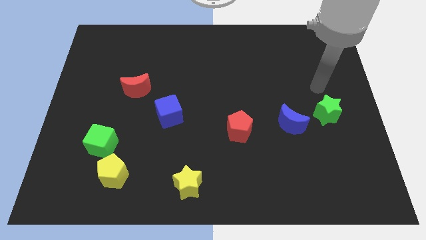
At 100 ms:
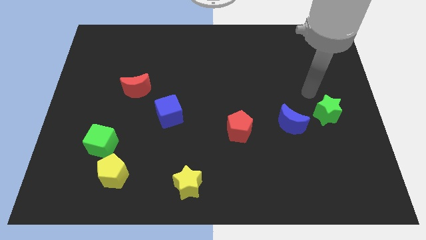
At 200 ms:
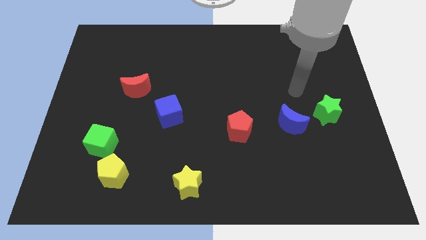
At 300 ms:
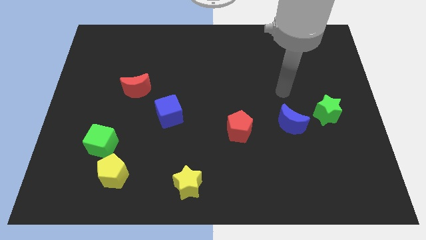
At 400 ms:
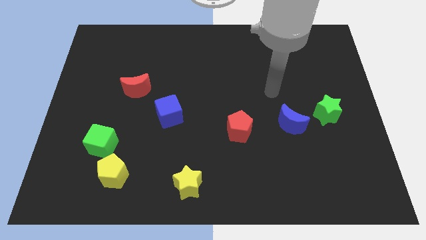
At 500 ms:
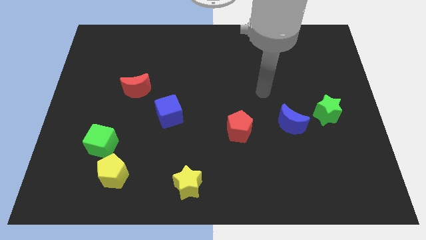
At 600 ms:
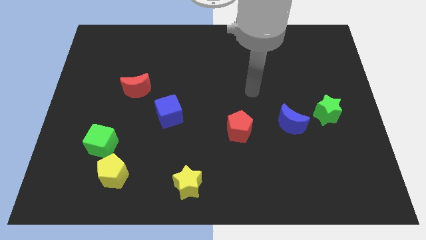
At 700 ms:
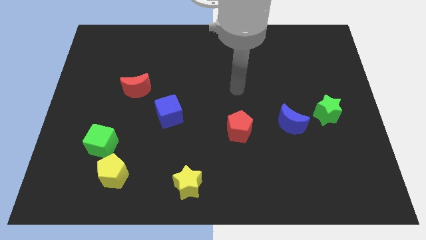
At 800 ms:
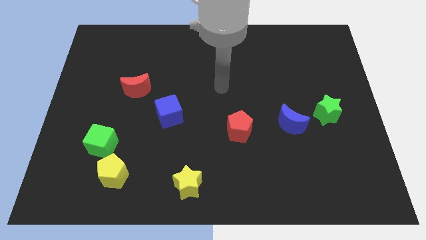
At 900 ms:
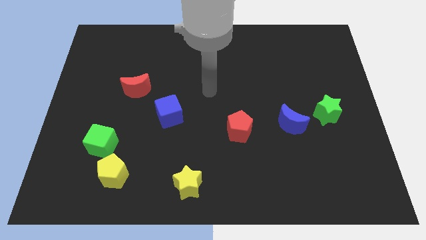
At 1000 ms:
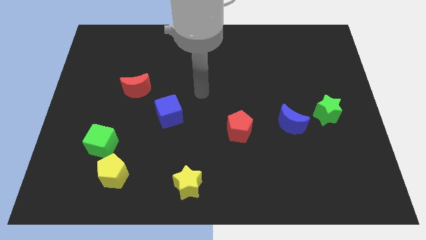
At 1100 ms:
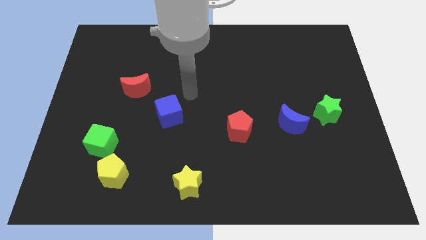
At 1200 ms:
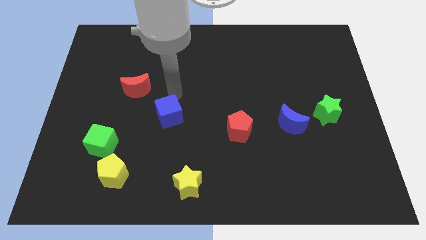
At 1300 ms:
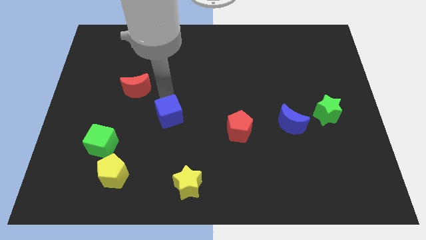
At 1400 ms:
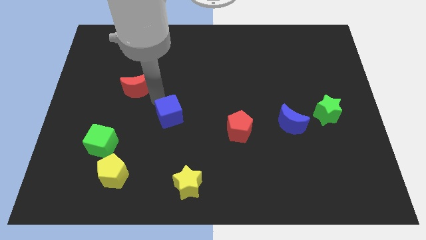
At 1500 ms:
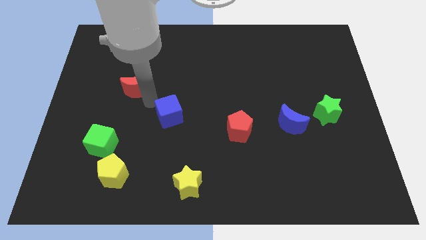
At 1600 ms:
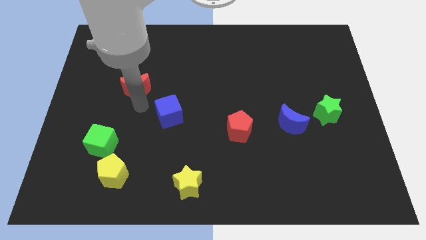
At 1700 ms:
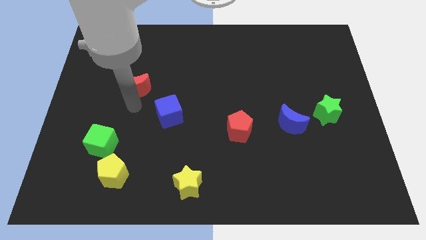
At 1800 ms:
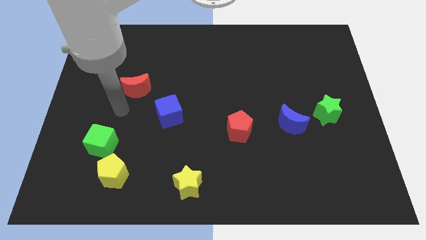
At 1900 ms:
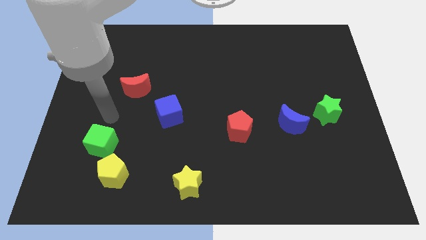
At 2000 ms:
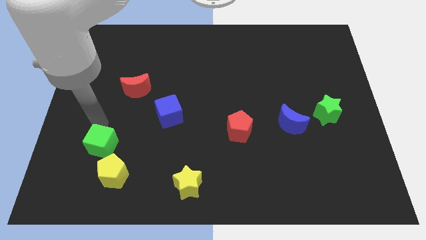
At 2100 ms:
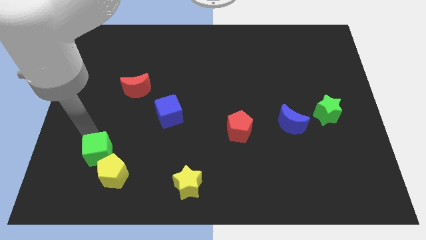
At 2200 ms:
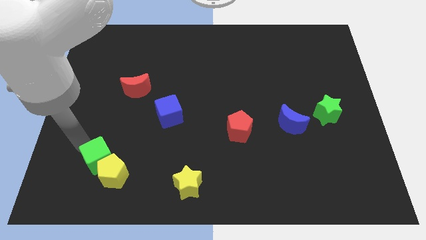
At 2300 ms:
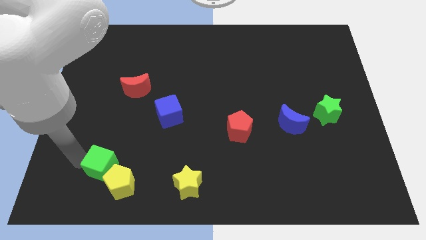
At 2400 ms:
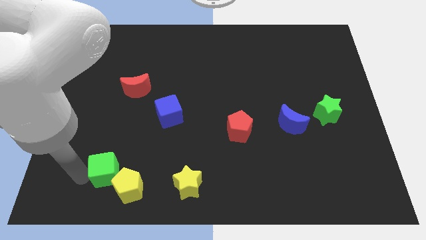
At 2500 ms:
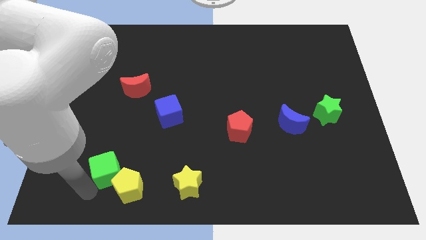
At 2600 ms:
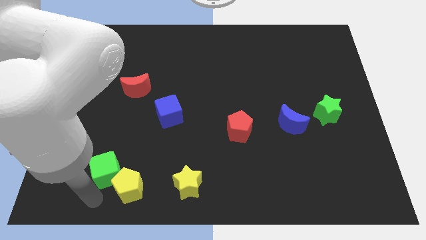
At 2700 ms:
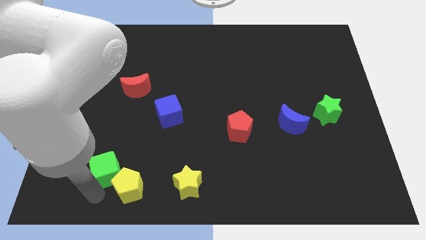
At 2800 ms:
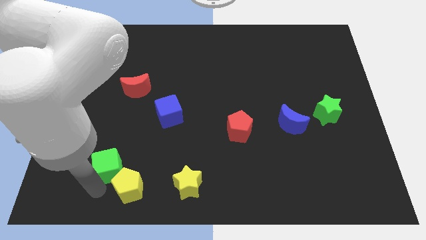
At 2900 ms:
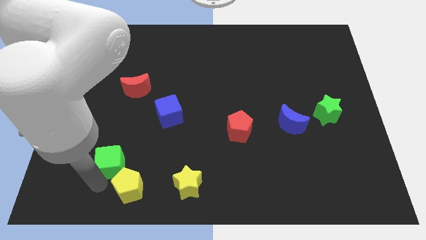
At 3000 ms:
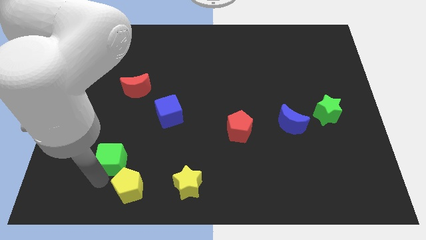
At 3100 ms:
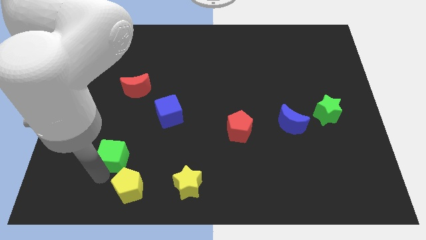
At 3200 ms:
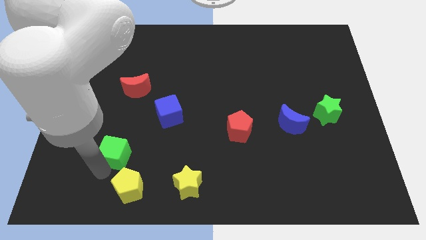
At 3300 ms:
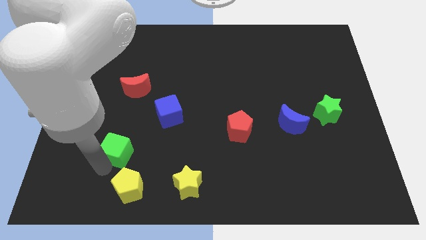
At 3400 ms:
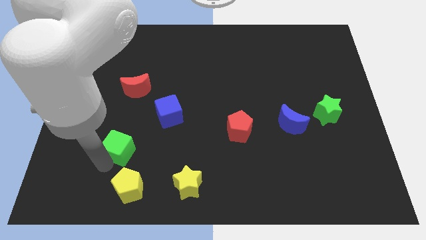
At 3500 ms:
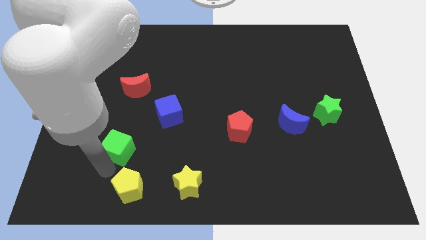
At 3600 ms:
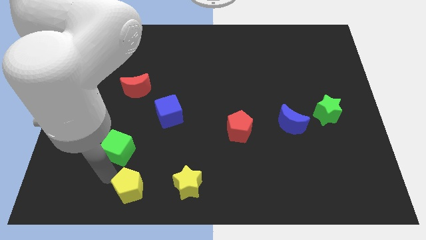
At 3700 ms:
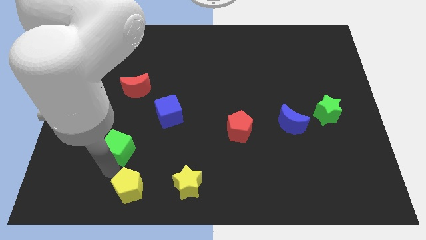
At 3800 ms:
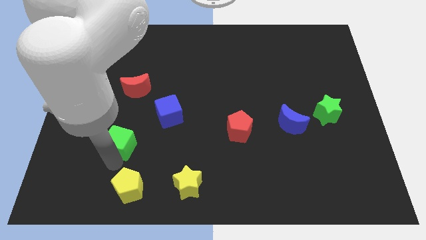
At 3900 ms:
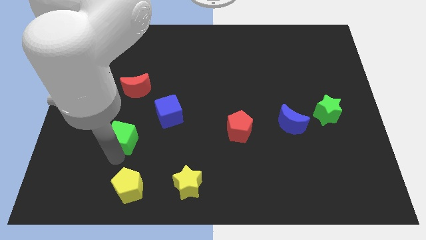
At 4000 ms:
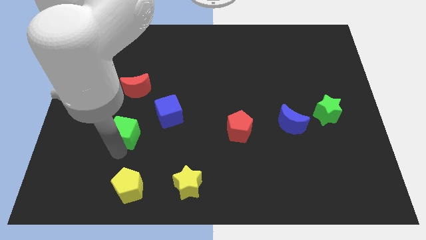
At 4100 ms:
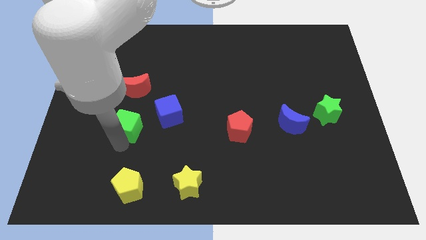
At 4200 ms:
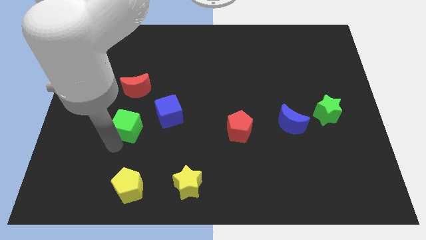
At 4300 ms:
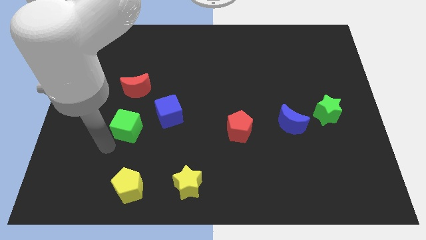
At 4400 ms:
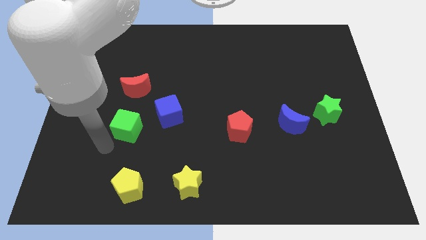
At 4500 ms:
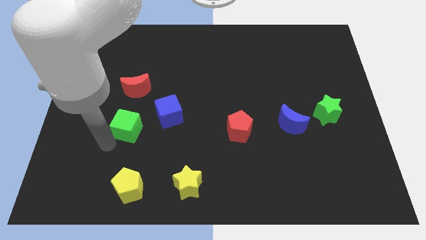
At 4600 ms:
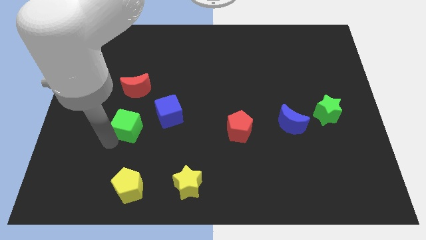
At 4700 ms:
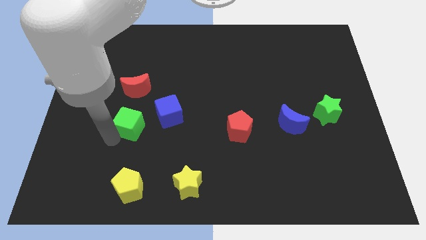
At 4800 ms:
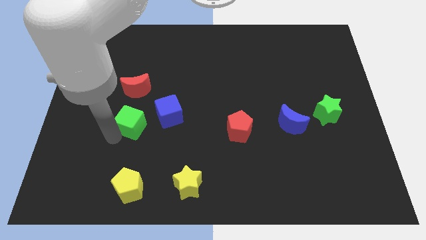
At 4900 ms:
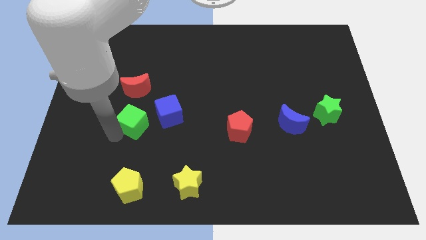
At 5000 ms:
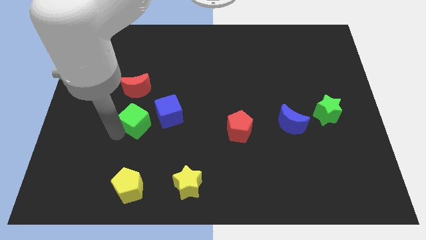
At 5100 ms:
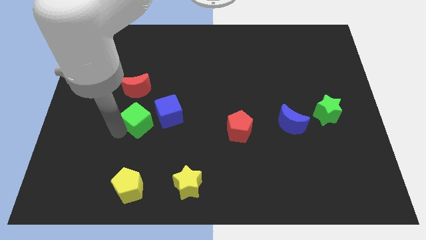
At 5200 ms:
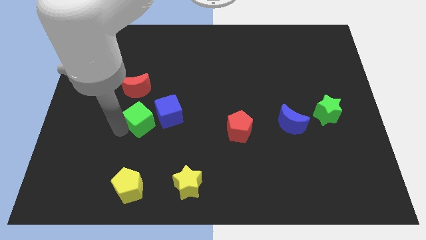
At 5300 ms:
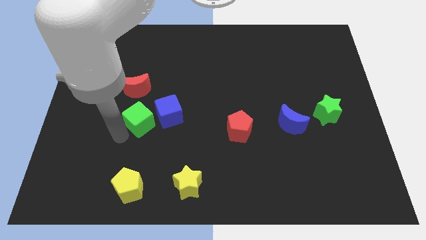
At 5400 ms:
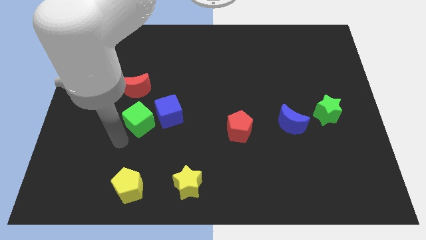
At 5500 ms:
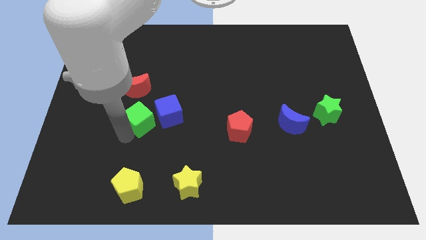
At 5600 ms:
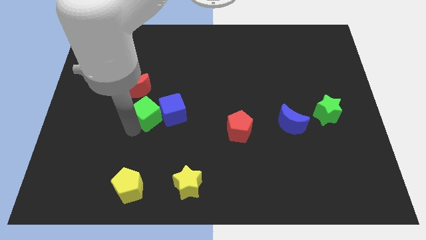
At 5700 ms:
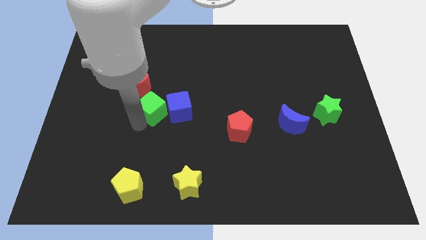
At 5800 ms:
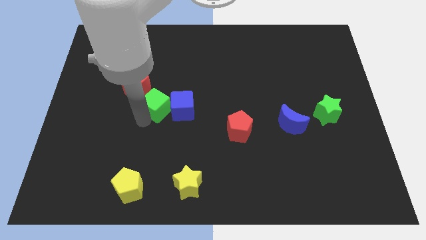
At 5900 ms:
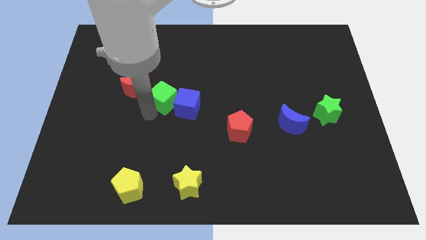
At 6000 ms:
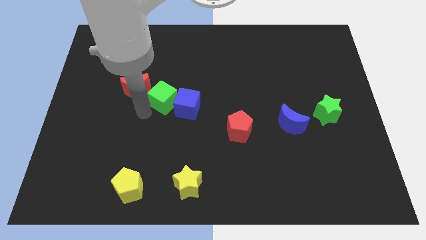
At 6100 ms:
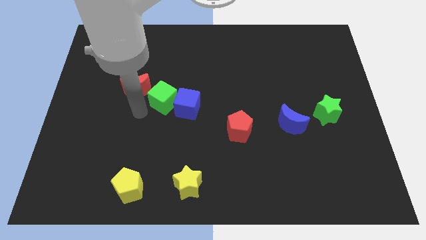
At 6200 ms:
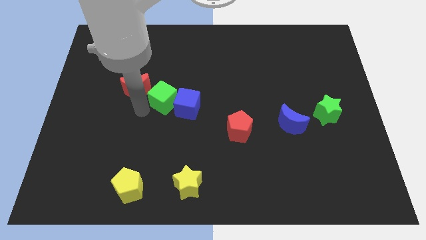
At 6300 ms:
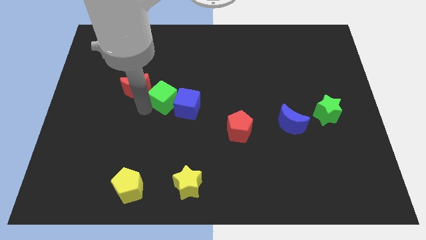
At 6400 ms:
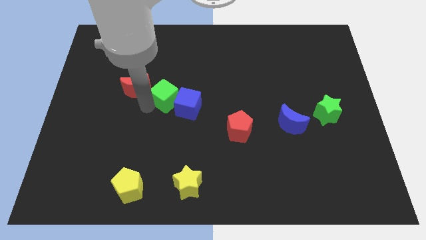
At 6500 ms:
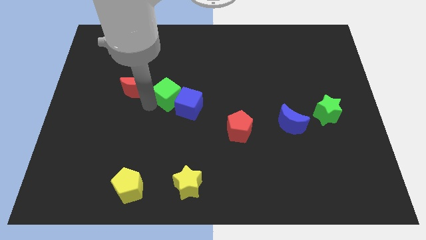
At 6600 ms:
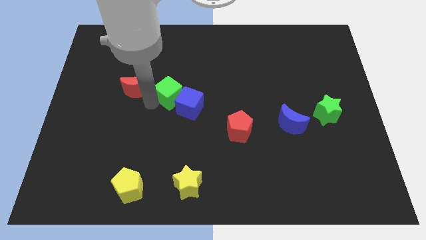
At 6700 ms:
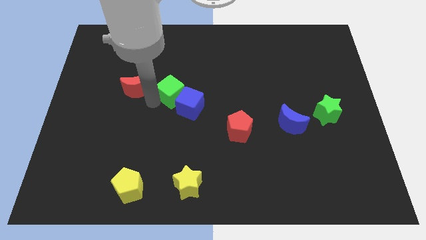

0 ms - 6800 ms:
push the green cube upwards and then to the right

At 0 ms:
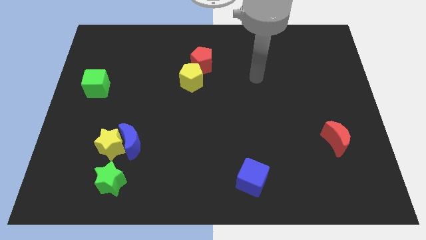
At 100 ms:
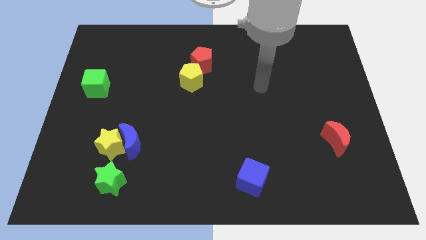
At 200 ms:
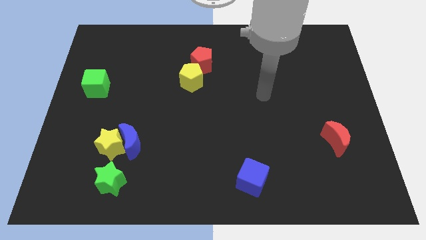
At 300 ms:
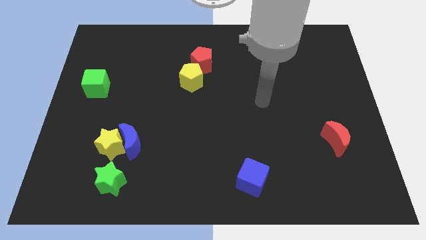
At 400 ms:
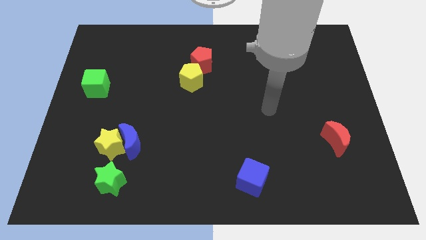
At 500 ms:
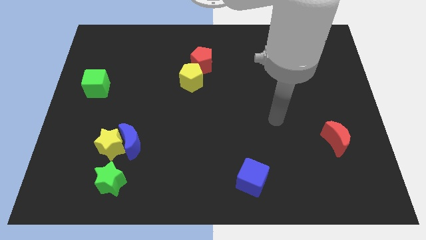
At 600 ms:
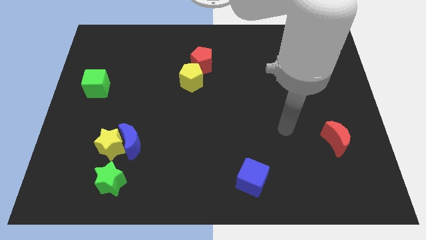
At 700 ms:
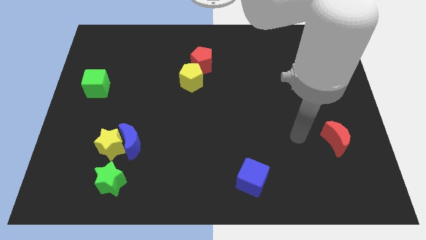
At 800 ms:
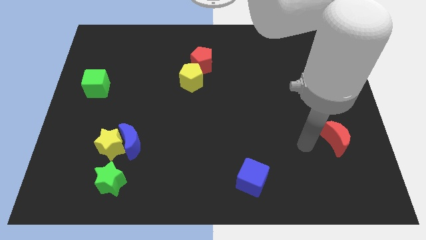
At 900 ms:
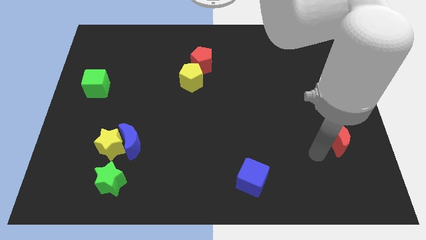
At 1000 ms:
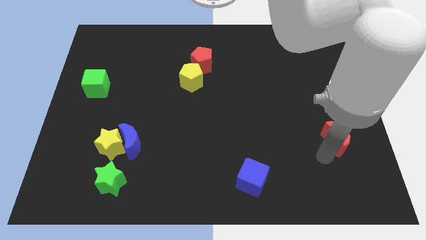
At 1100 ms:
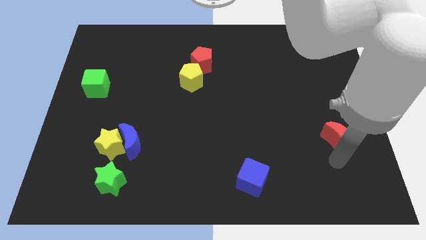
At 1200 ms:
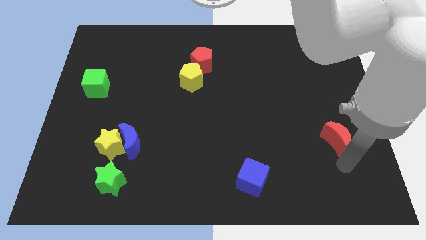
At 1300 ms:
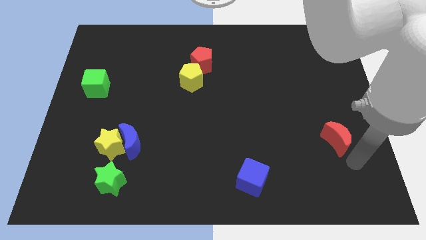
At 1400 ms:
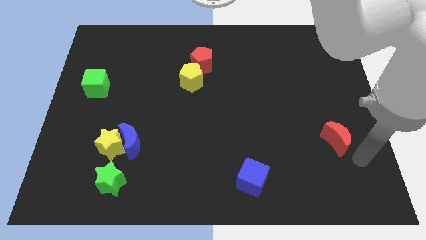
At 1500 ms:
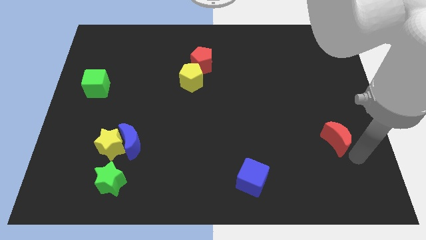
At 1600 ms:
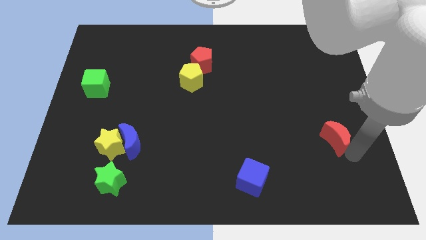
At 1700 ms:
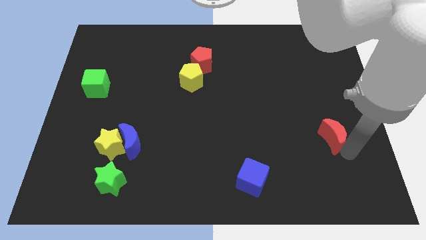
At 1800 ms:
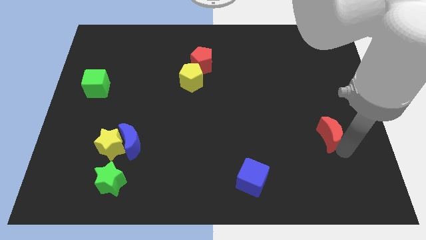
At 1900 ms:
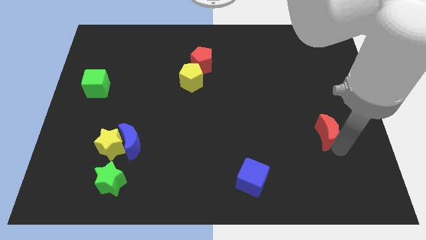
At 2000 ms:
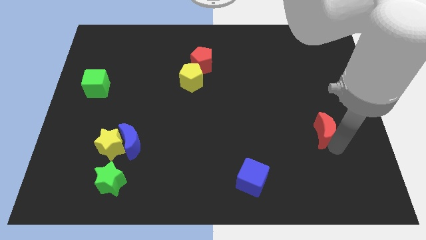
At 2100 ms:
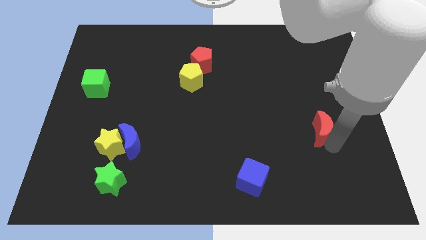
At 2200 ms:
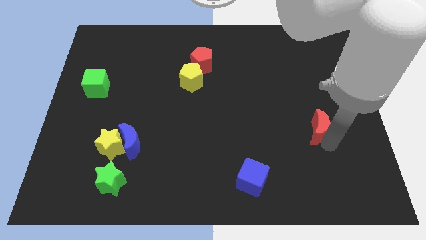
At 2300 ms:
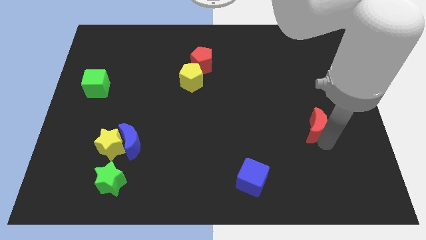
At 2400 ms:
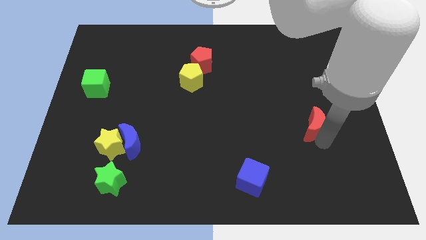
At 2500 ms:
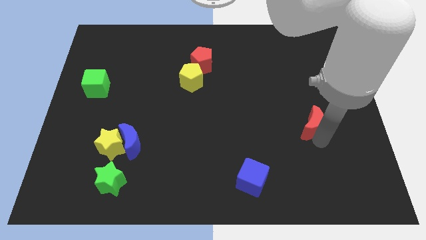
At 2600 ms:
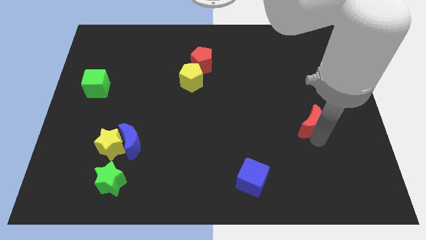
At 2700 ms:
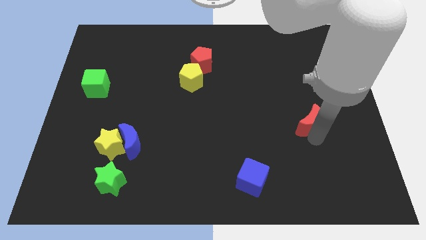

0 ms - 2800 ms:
slide the red moon somewhat diagonally up and left
